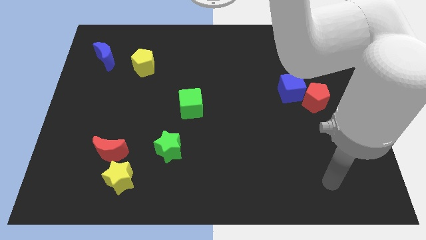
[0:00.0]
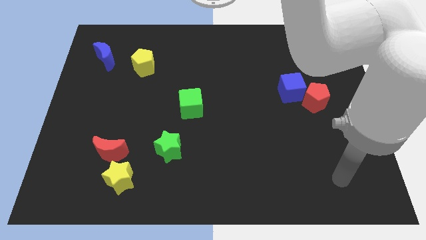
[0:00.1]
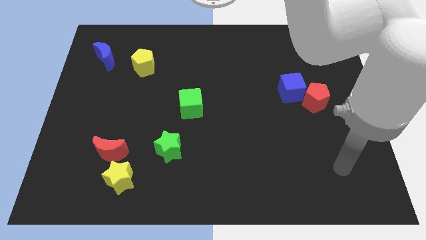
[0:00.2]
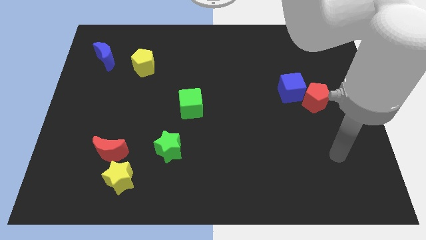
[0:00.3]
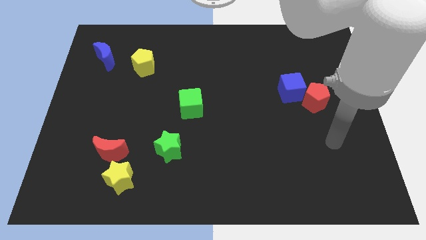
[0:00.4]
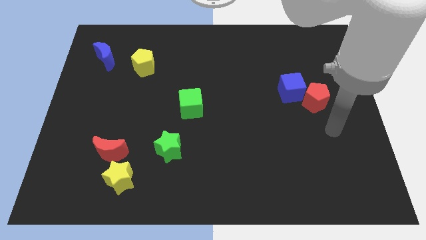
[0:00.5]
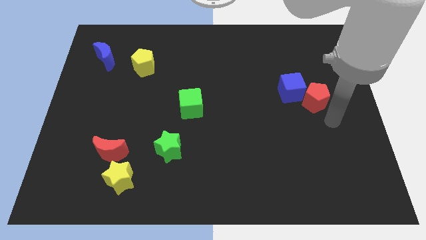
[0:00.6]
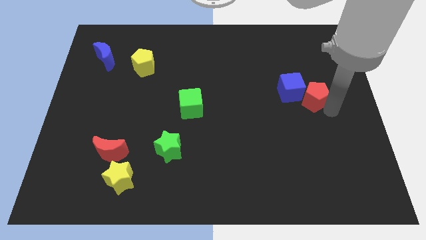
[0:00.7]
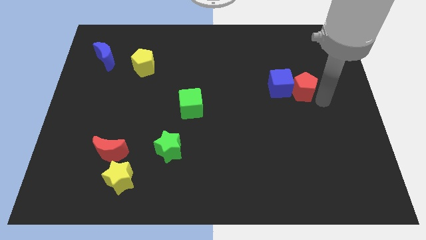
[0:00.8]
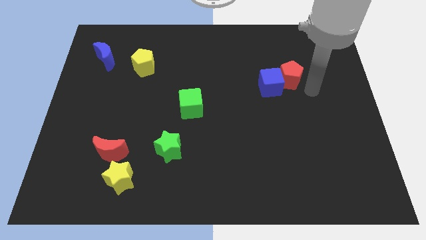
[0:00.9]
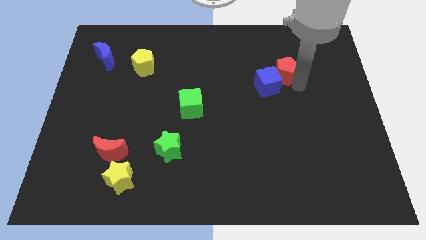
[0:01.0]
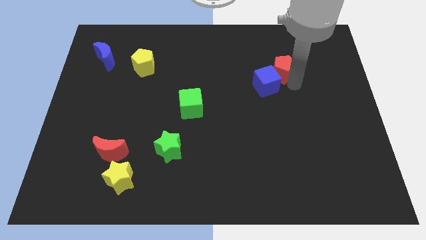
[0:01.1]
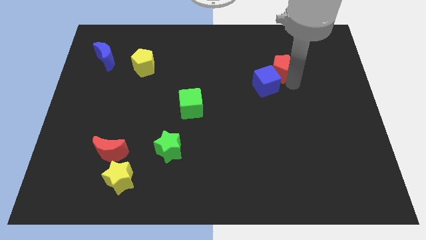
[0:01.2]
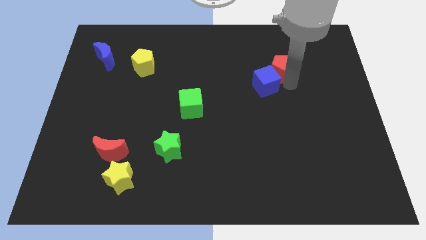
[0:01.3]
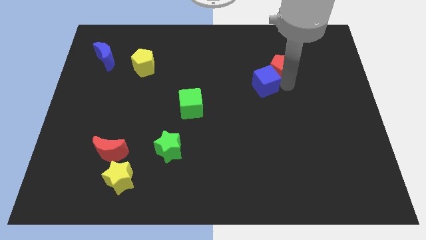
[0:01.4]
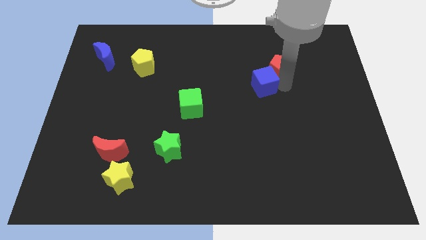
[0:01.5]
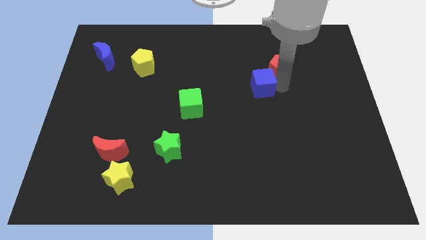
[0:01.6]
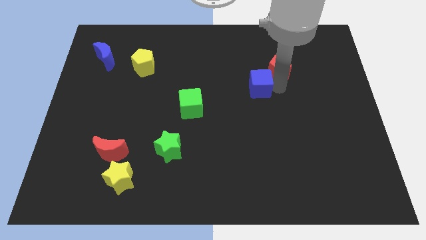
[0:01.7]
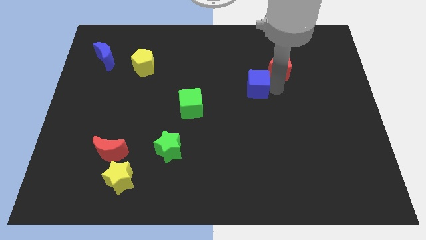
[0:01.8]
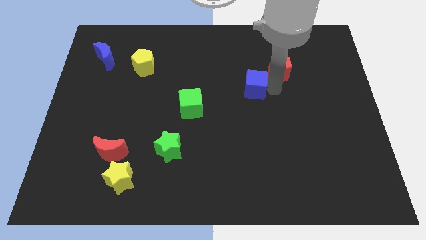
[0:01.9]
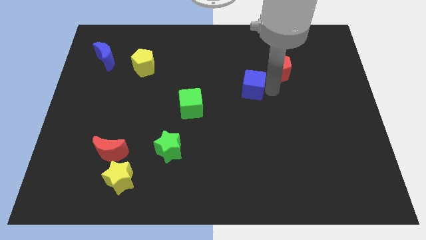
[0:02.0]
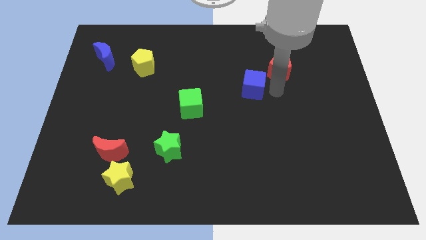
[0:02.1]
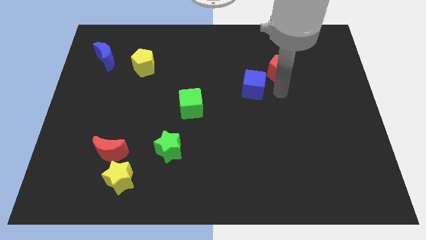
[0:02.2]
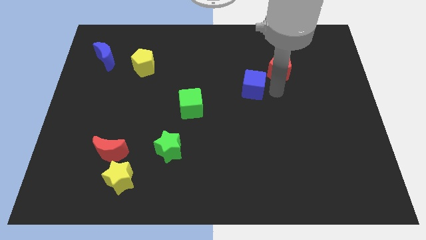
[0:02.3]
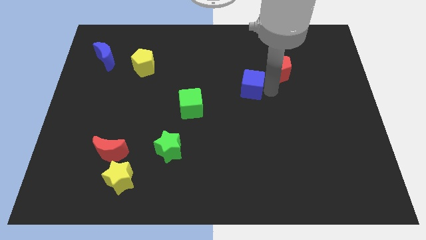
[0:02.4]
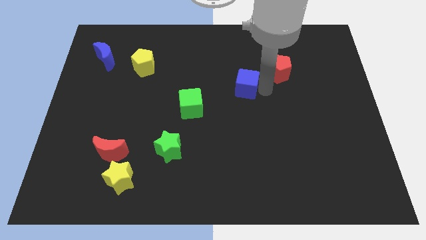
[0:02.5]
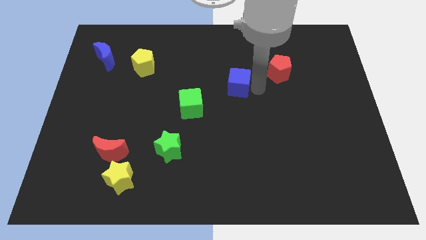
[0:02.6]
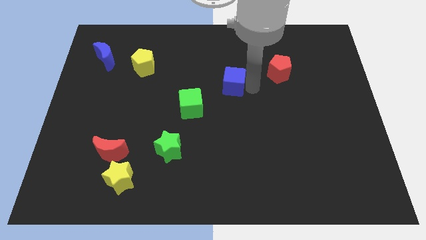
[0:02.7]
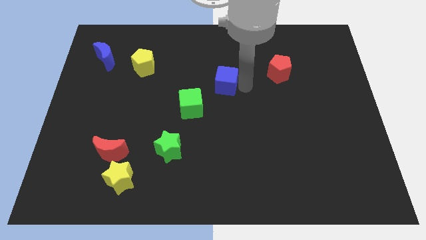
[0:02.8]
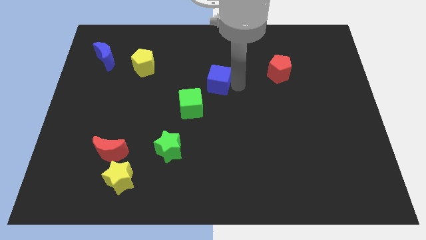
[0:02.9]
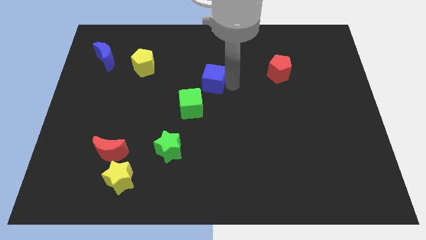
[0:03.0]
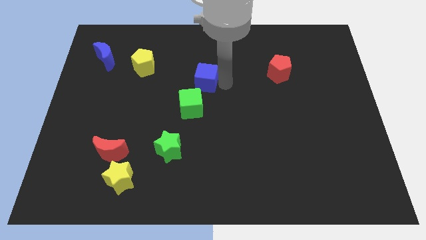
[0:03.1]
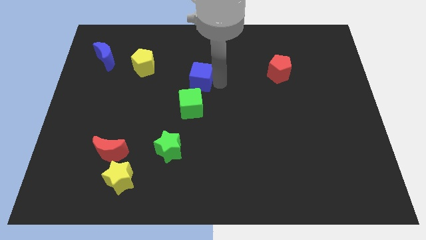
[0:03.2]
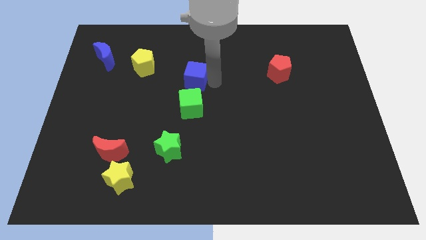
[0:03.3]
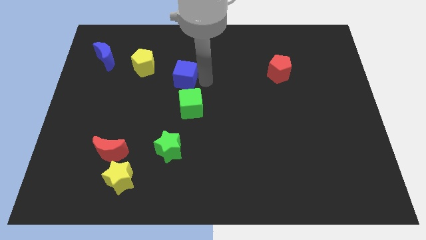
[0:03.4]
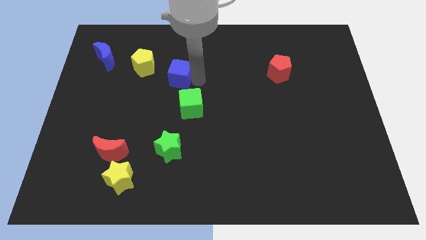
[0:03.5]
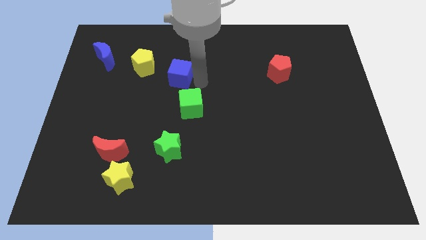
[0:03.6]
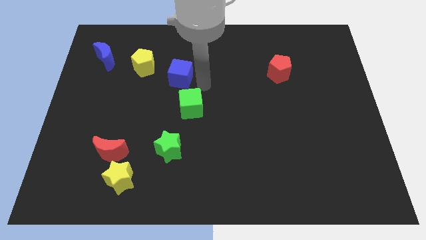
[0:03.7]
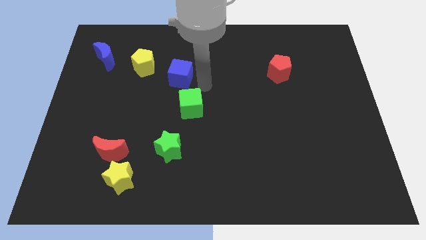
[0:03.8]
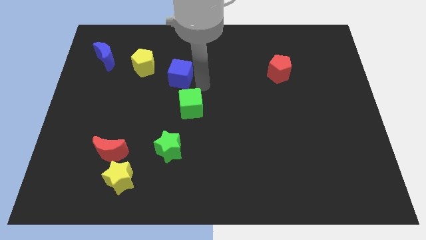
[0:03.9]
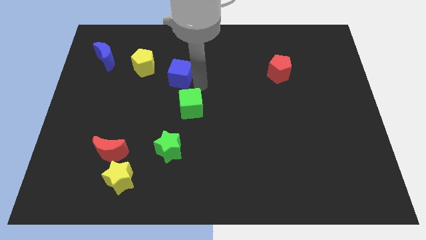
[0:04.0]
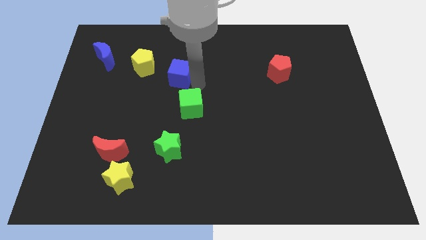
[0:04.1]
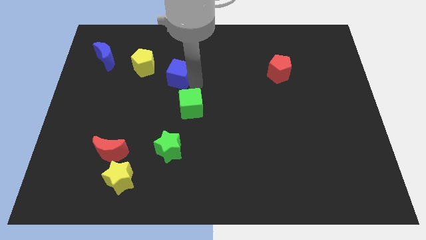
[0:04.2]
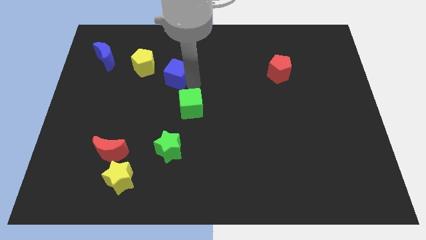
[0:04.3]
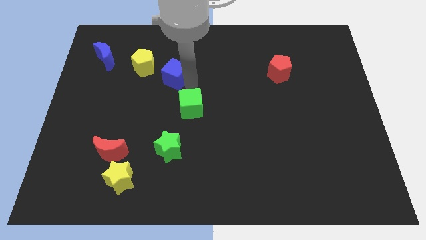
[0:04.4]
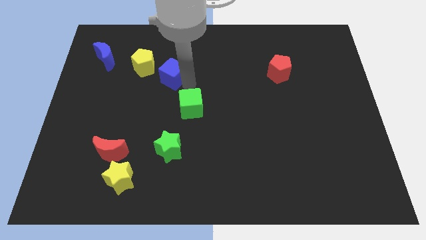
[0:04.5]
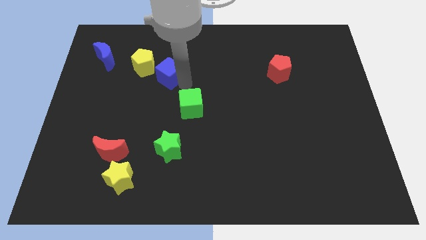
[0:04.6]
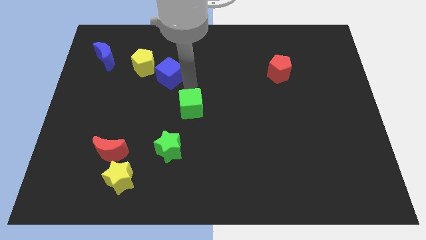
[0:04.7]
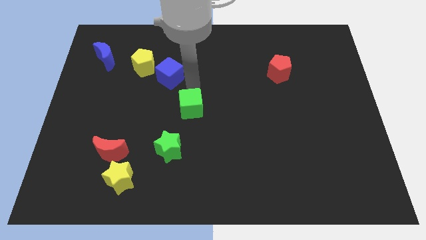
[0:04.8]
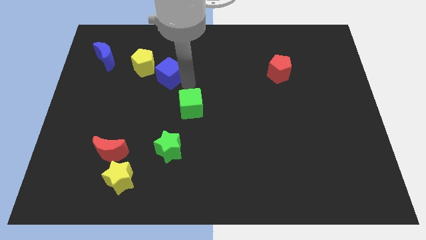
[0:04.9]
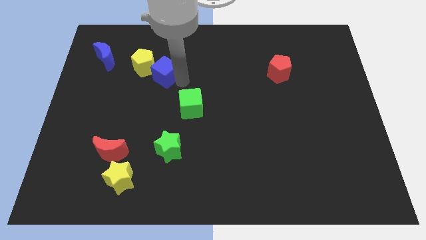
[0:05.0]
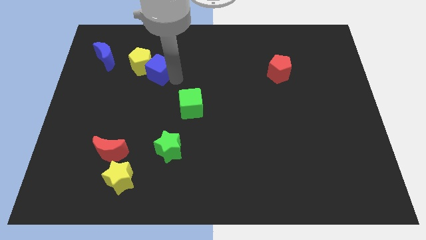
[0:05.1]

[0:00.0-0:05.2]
move the blue cube close to the yellow pentagon

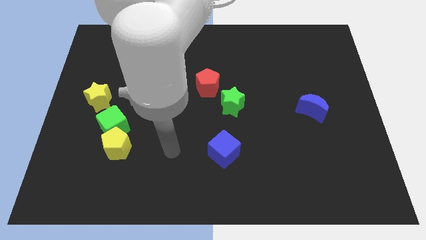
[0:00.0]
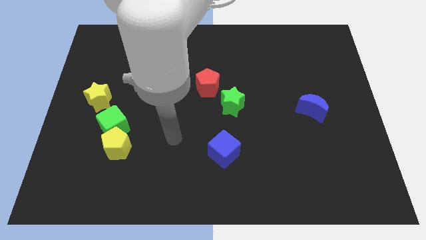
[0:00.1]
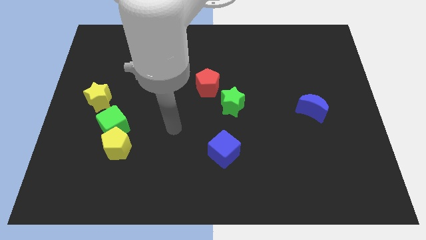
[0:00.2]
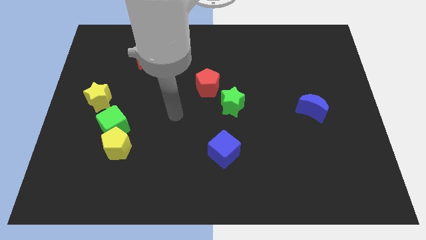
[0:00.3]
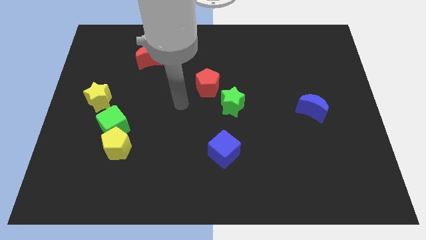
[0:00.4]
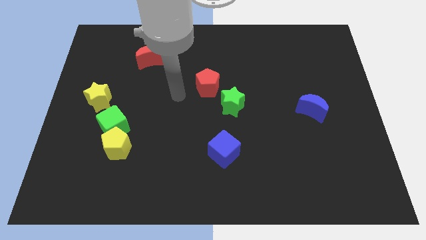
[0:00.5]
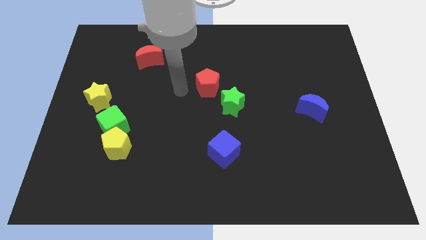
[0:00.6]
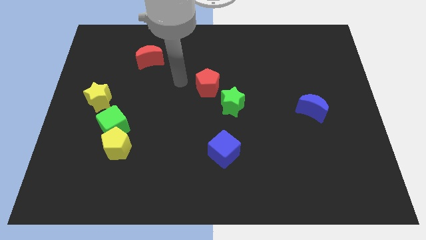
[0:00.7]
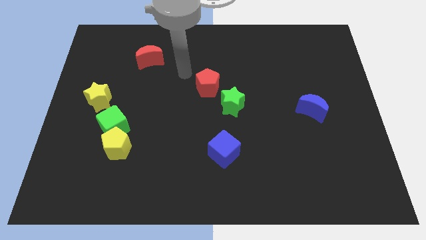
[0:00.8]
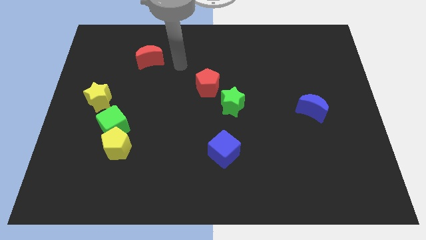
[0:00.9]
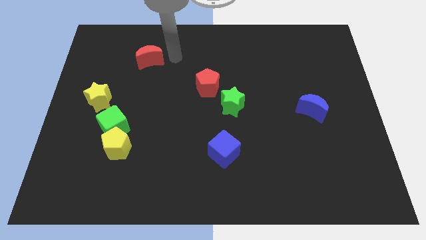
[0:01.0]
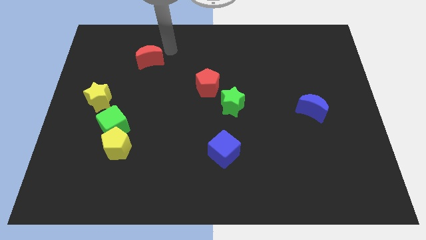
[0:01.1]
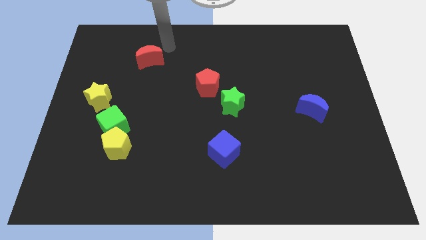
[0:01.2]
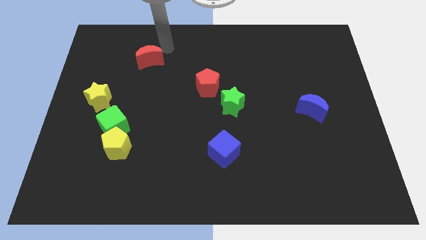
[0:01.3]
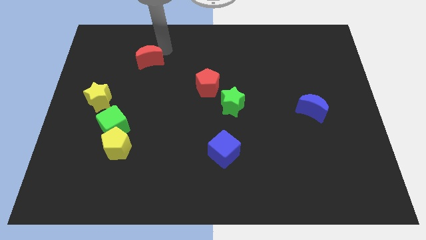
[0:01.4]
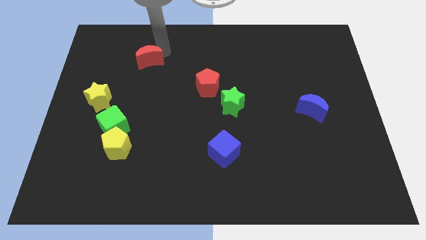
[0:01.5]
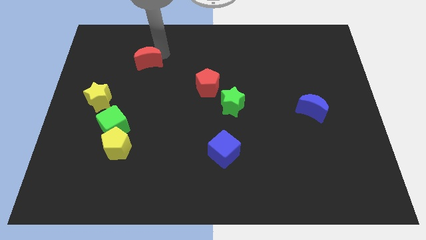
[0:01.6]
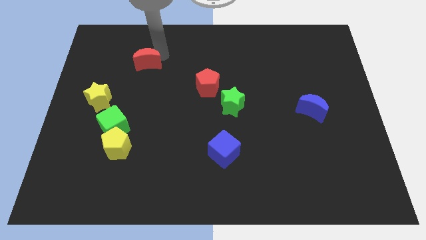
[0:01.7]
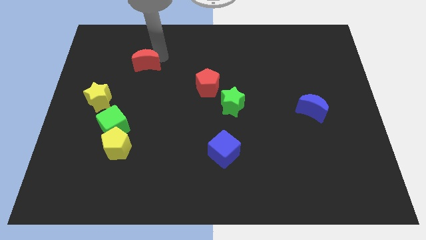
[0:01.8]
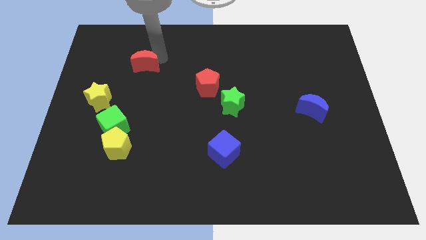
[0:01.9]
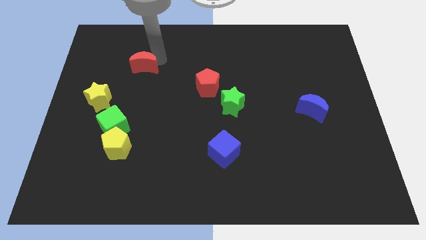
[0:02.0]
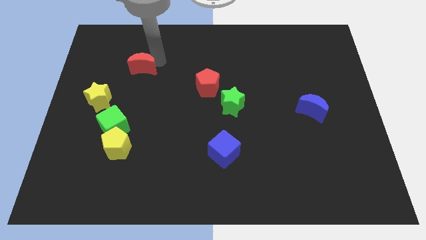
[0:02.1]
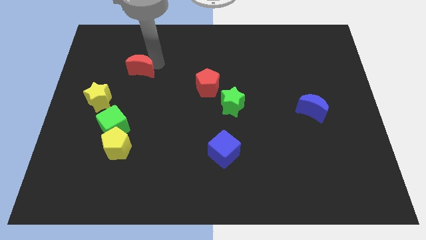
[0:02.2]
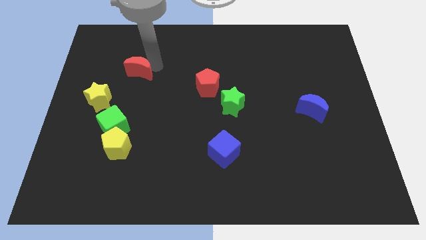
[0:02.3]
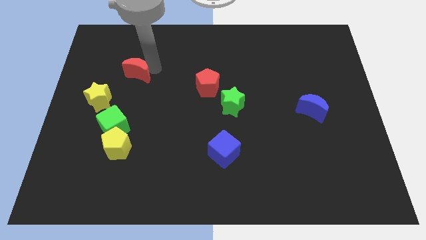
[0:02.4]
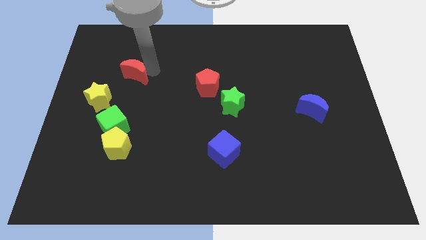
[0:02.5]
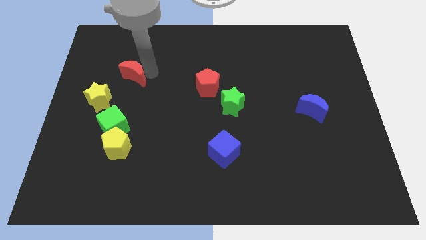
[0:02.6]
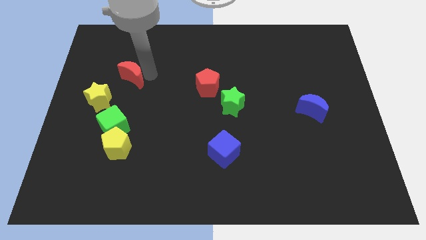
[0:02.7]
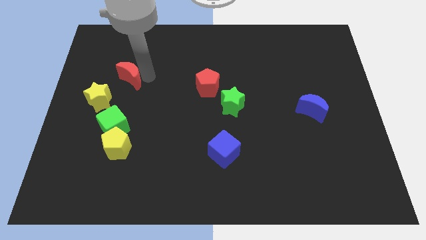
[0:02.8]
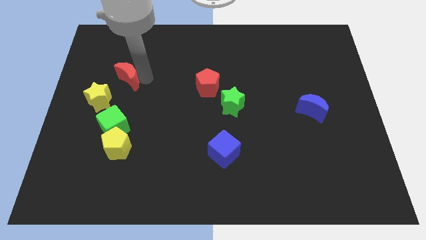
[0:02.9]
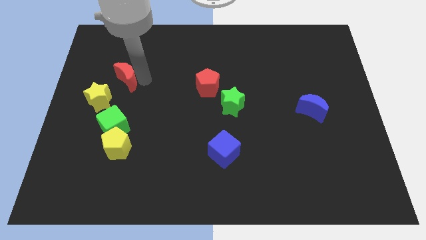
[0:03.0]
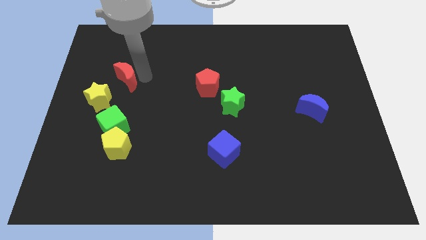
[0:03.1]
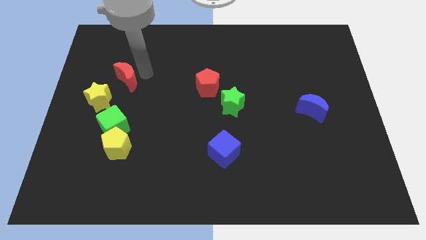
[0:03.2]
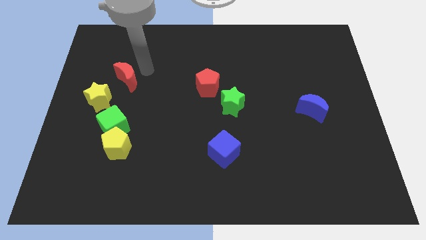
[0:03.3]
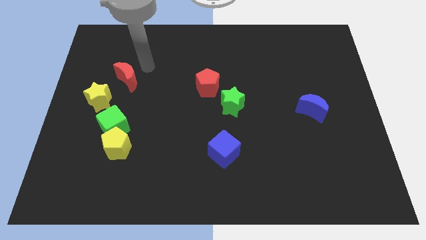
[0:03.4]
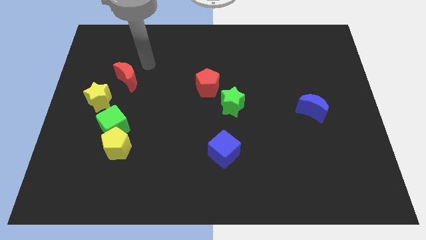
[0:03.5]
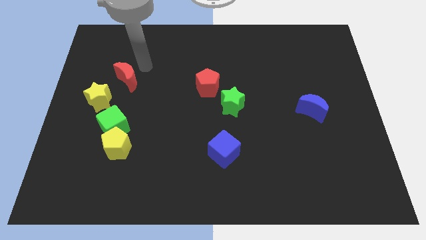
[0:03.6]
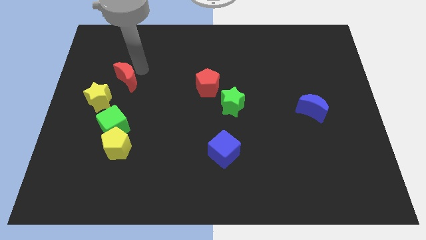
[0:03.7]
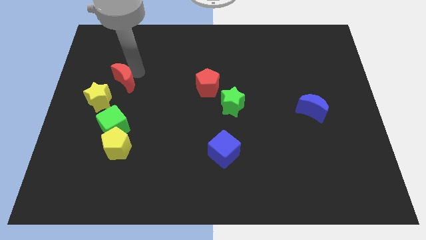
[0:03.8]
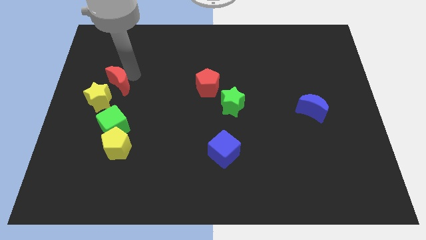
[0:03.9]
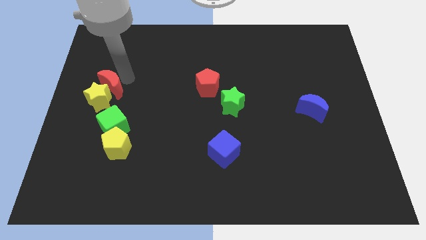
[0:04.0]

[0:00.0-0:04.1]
move the red moon close to the yellow star
